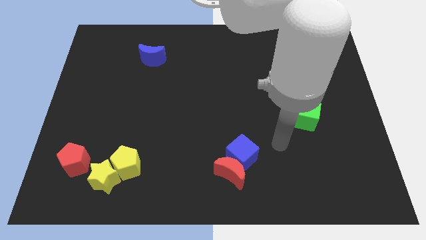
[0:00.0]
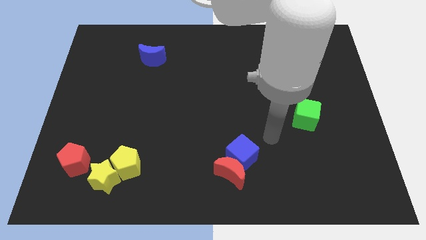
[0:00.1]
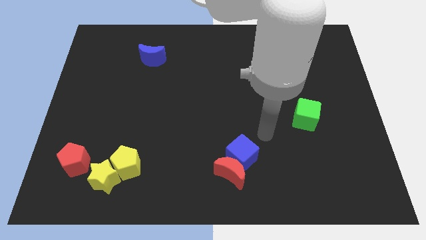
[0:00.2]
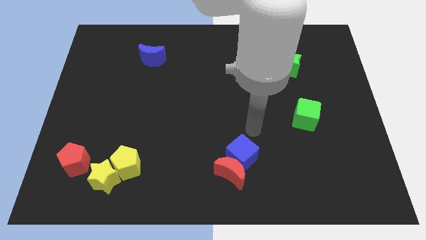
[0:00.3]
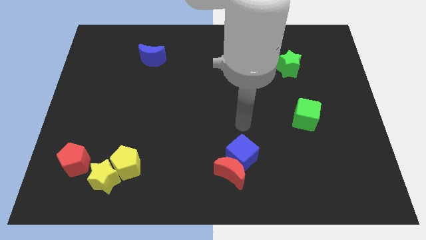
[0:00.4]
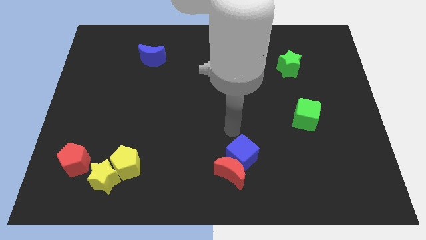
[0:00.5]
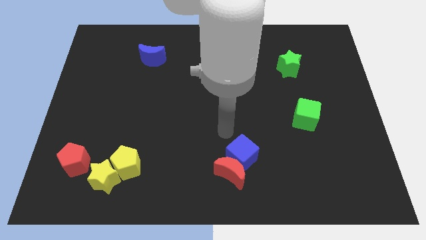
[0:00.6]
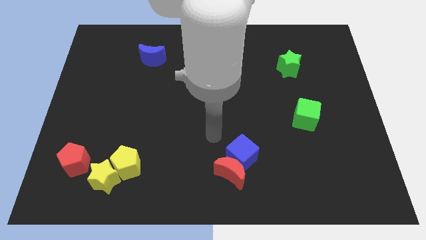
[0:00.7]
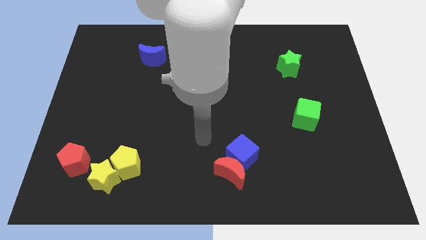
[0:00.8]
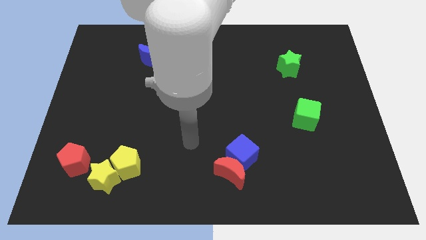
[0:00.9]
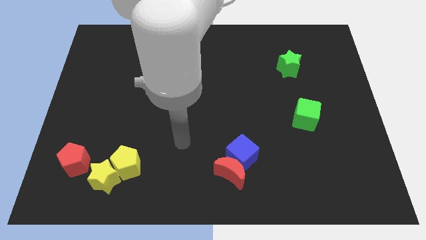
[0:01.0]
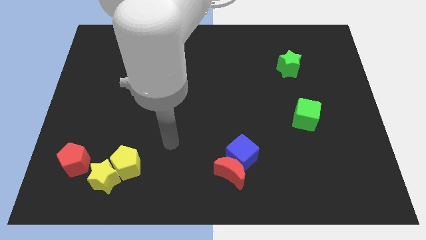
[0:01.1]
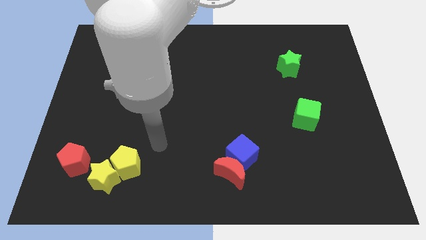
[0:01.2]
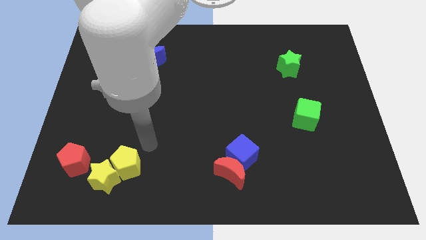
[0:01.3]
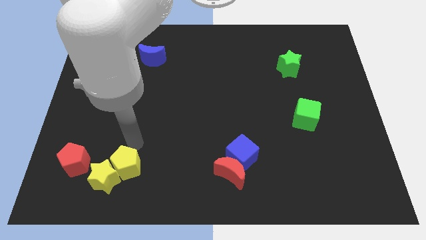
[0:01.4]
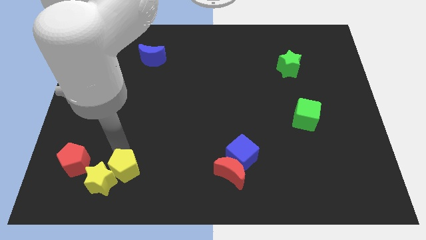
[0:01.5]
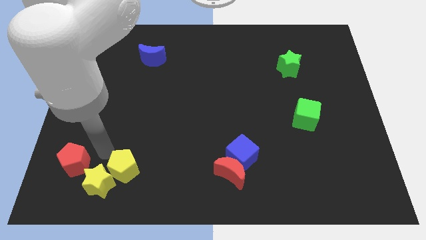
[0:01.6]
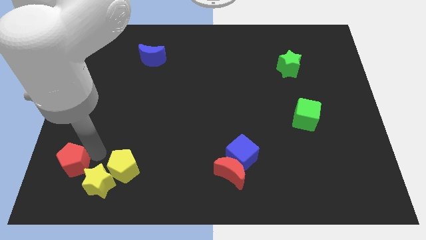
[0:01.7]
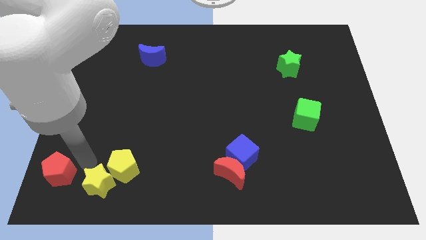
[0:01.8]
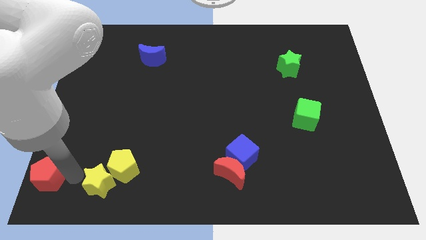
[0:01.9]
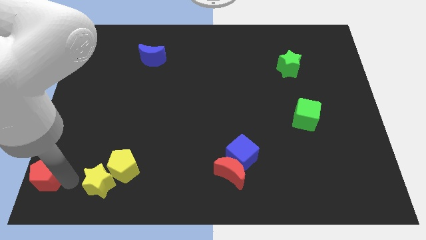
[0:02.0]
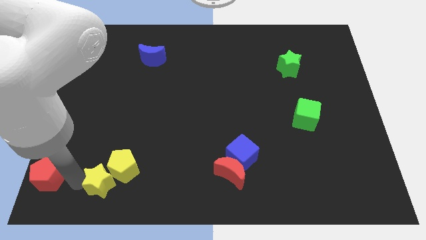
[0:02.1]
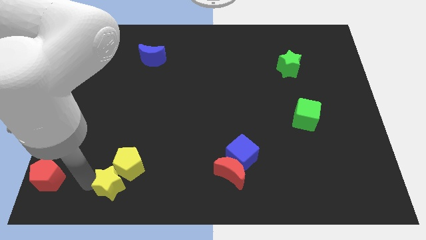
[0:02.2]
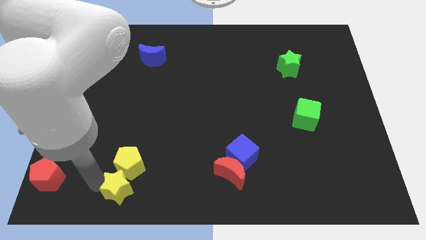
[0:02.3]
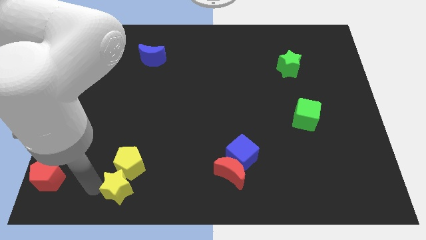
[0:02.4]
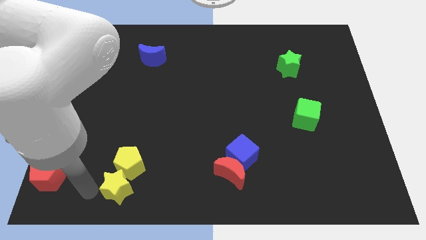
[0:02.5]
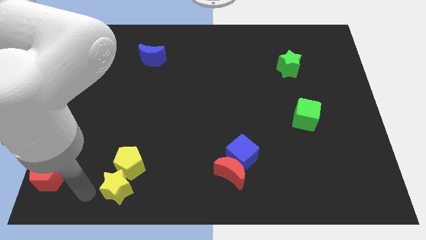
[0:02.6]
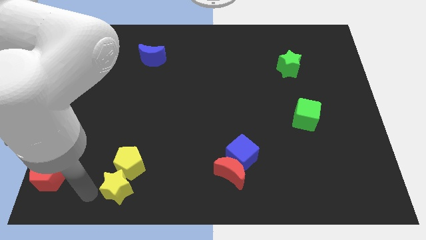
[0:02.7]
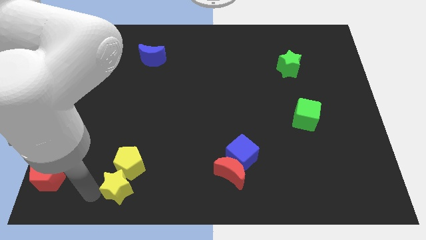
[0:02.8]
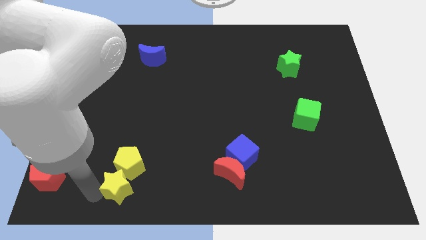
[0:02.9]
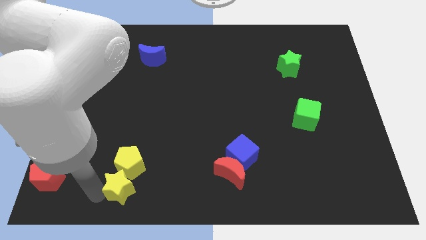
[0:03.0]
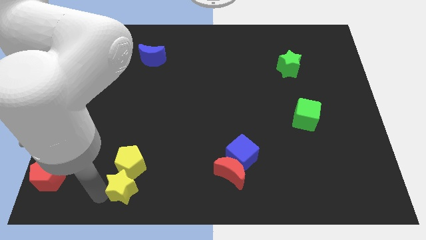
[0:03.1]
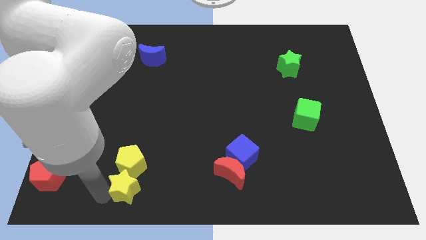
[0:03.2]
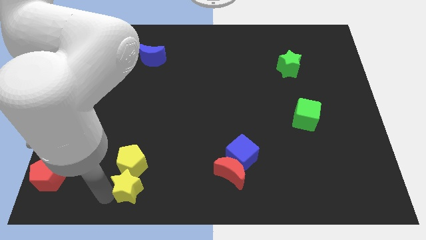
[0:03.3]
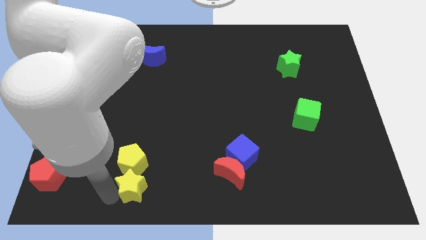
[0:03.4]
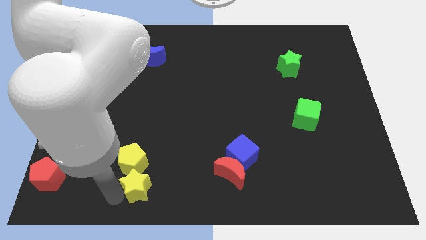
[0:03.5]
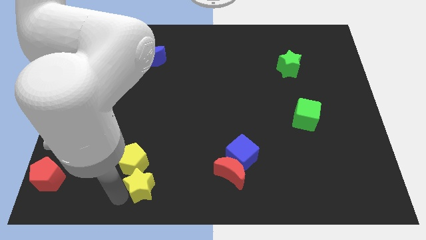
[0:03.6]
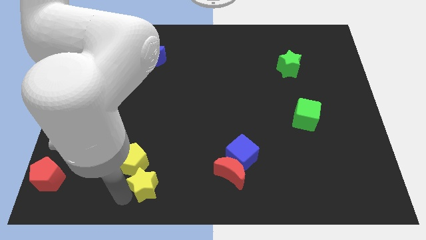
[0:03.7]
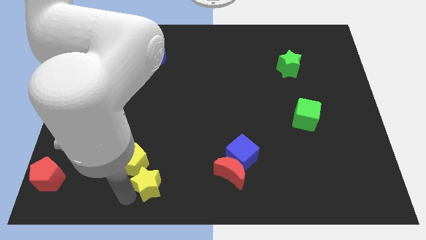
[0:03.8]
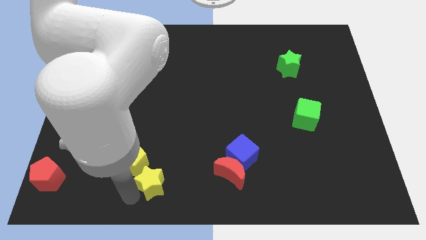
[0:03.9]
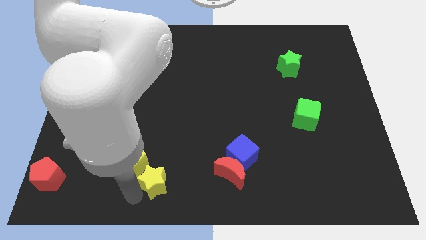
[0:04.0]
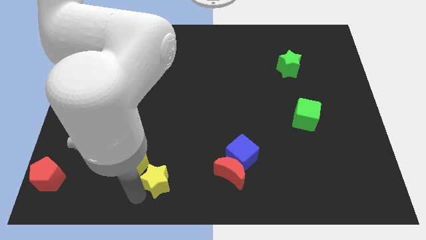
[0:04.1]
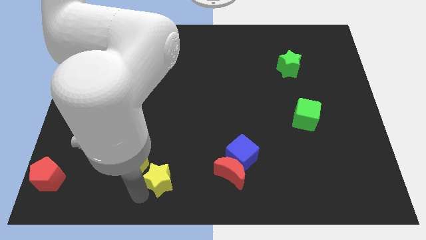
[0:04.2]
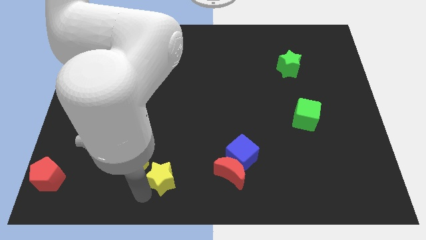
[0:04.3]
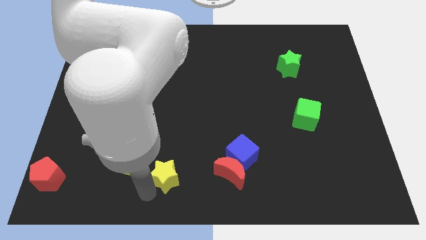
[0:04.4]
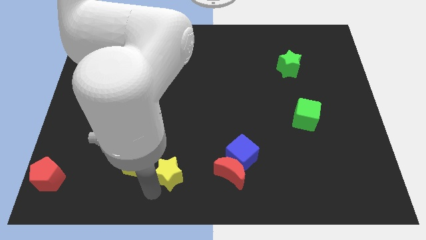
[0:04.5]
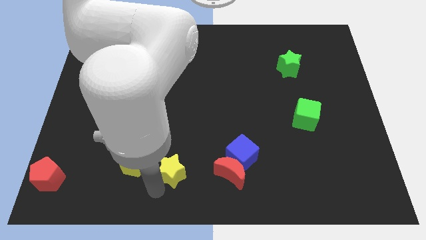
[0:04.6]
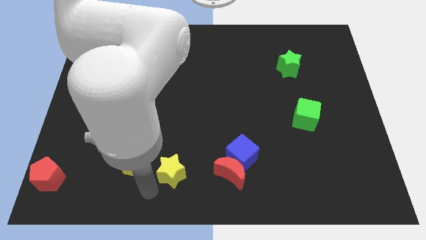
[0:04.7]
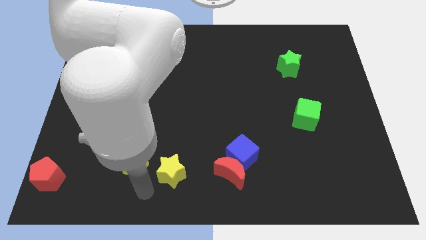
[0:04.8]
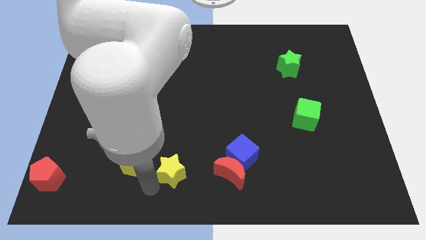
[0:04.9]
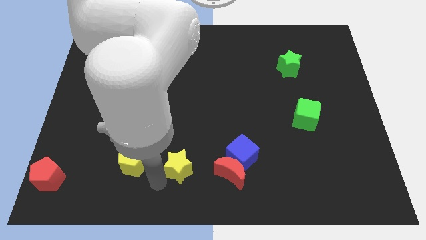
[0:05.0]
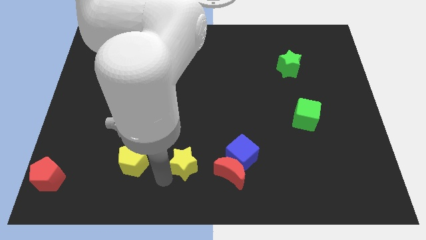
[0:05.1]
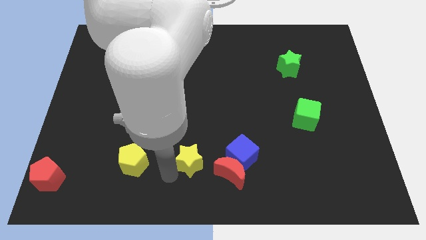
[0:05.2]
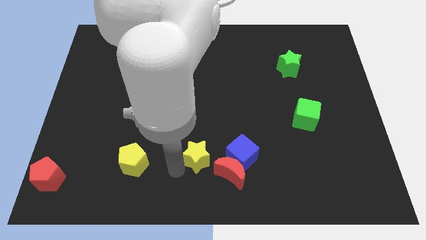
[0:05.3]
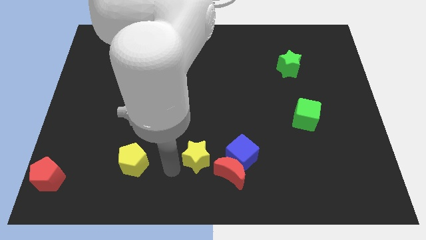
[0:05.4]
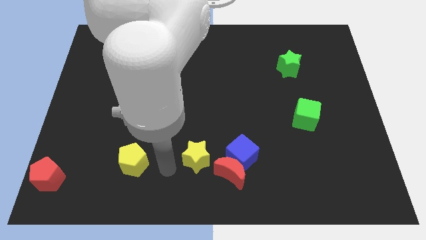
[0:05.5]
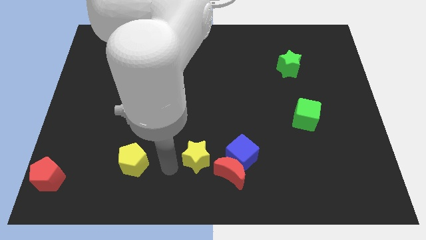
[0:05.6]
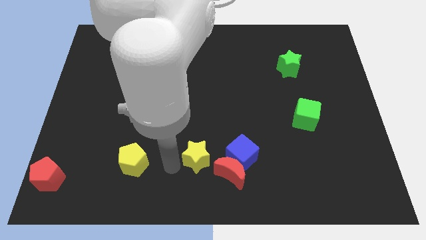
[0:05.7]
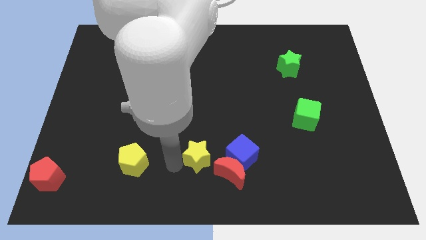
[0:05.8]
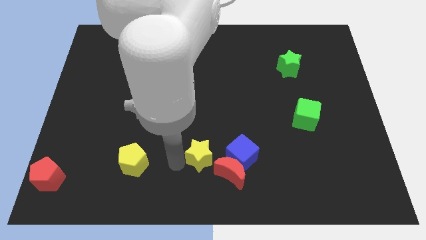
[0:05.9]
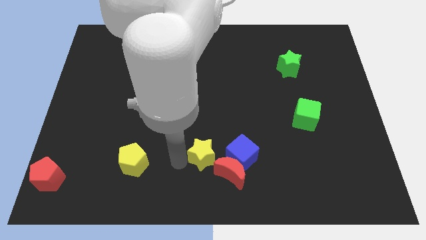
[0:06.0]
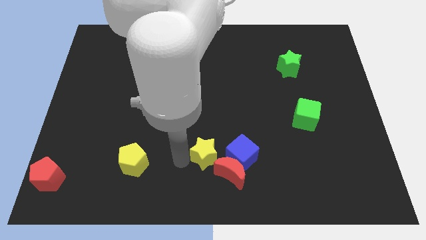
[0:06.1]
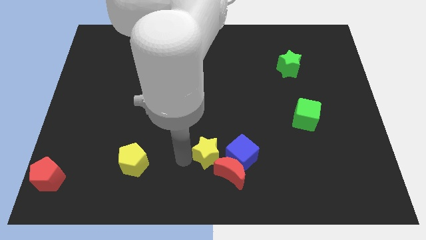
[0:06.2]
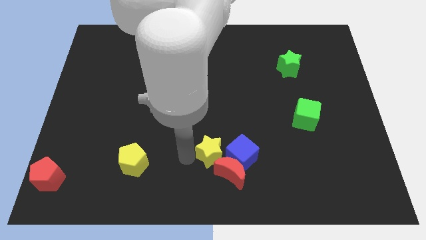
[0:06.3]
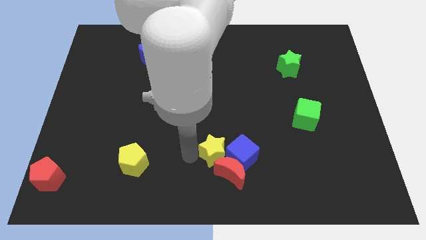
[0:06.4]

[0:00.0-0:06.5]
put the yellow star next to the blue cube
